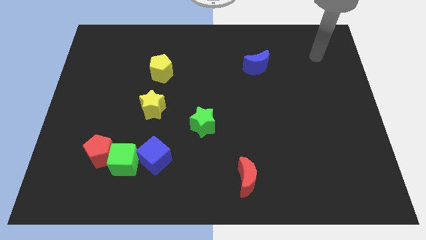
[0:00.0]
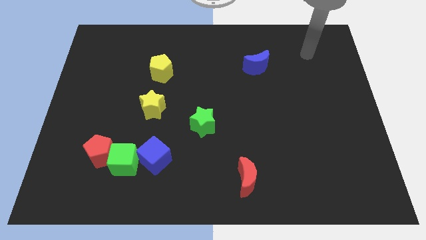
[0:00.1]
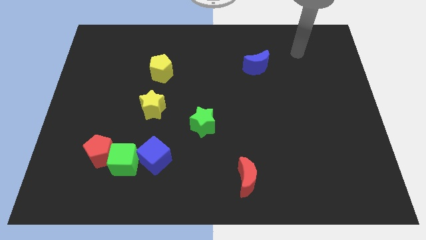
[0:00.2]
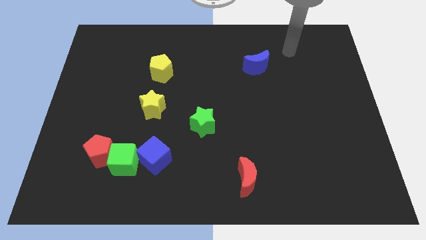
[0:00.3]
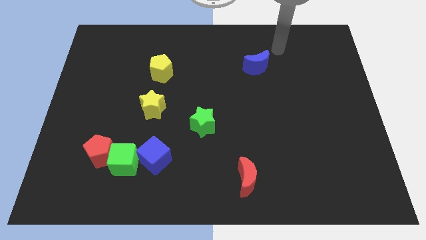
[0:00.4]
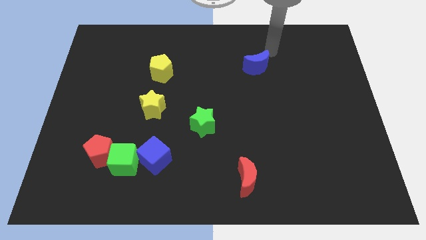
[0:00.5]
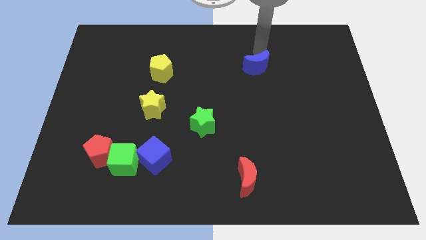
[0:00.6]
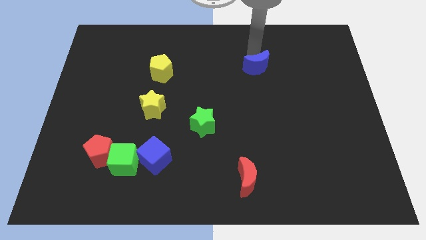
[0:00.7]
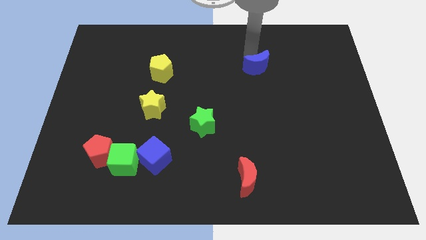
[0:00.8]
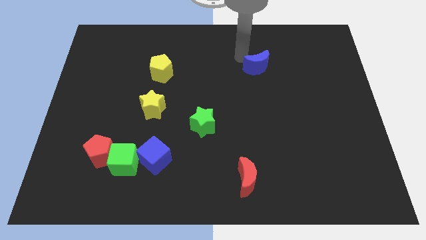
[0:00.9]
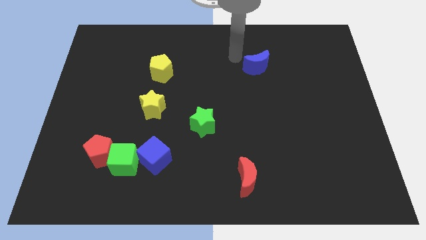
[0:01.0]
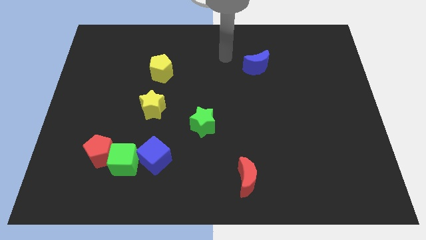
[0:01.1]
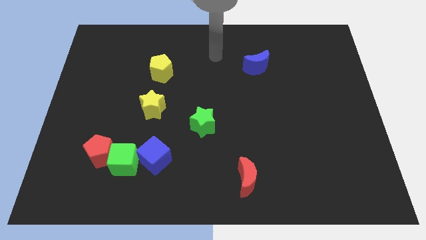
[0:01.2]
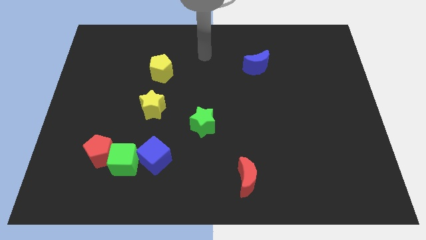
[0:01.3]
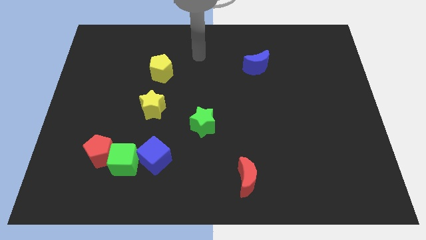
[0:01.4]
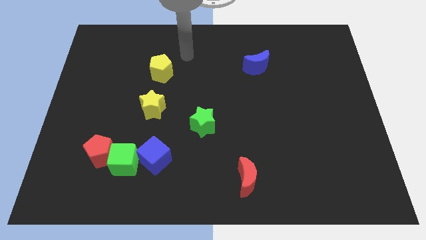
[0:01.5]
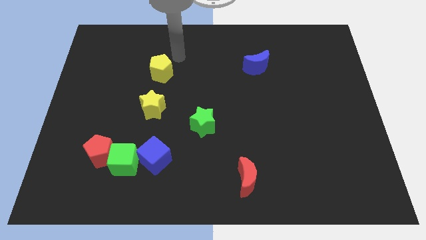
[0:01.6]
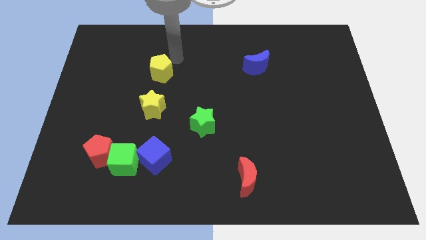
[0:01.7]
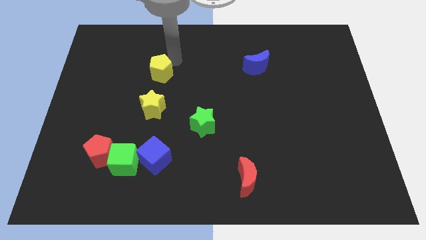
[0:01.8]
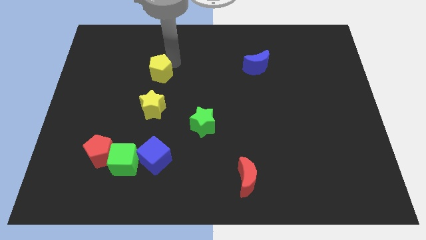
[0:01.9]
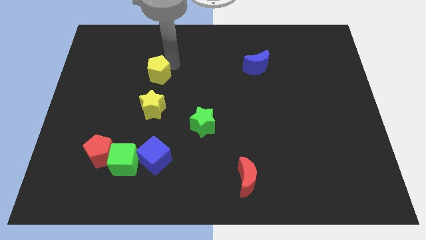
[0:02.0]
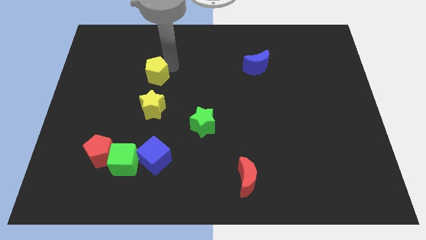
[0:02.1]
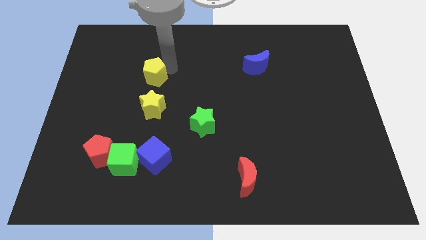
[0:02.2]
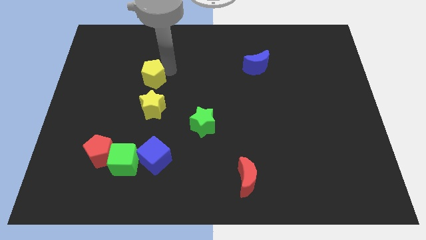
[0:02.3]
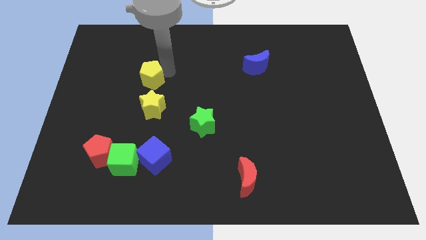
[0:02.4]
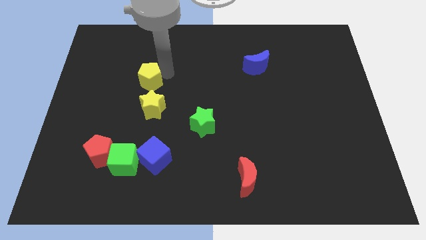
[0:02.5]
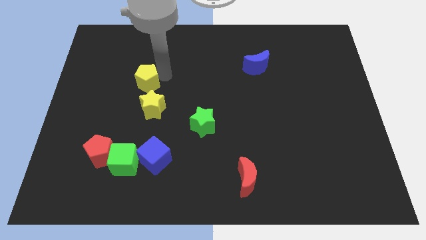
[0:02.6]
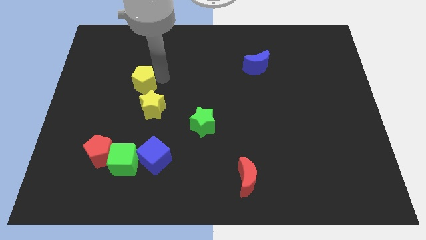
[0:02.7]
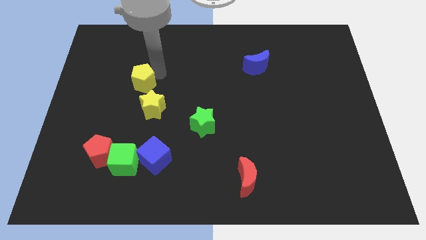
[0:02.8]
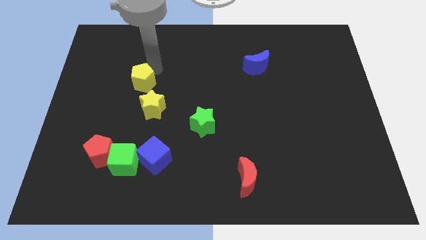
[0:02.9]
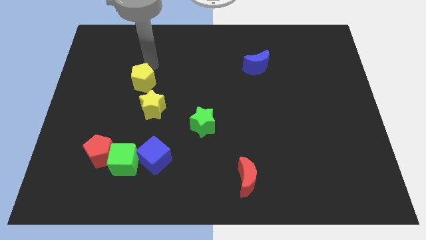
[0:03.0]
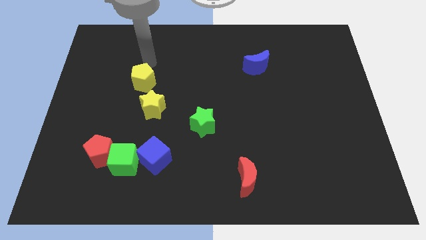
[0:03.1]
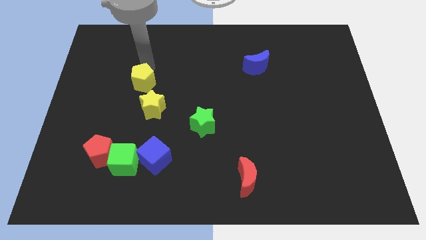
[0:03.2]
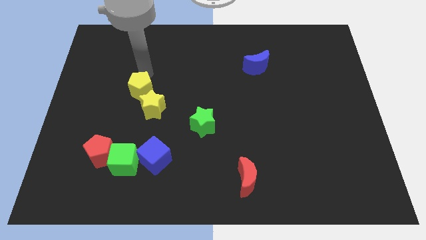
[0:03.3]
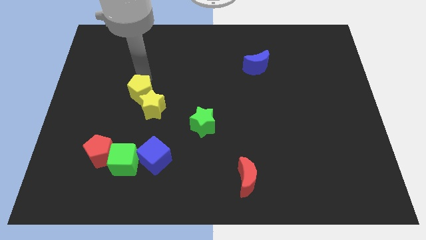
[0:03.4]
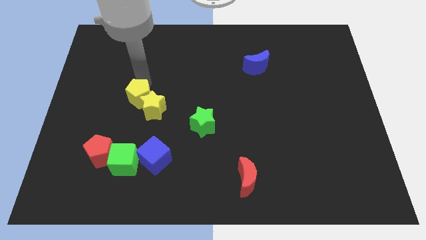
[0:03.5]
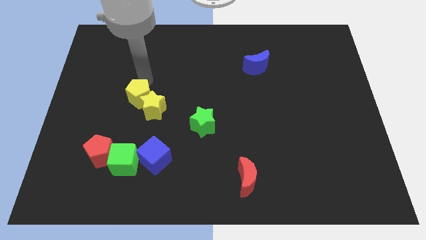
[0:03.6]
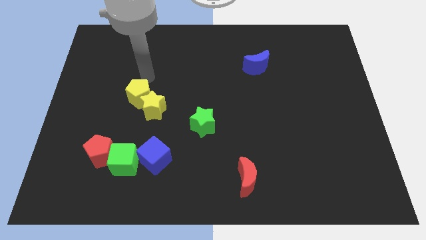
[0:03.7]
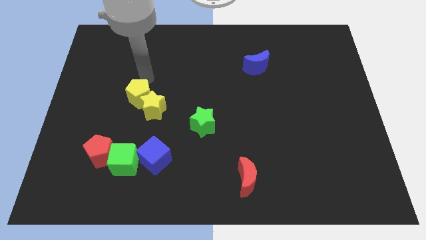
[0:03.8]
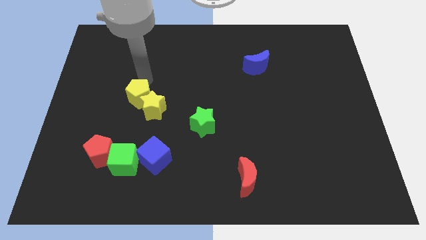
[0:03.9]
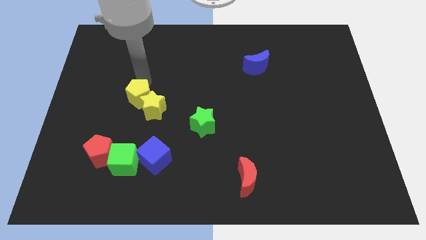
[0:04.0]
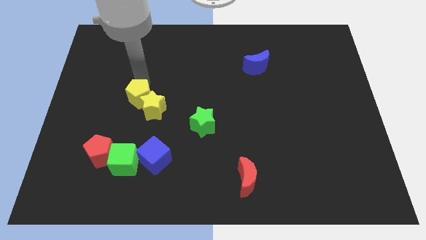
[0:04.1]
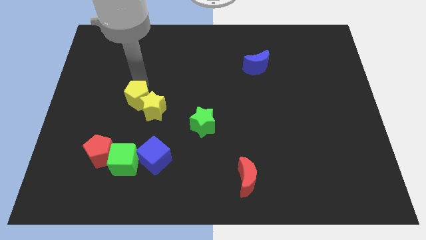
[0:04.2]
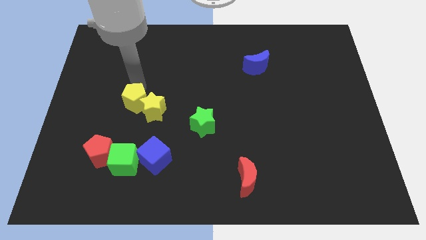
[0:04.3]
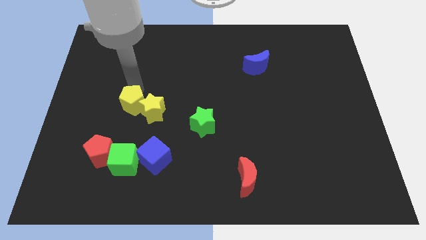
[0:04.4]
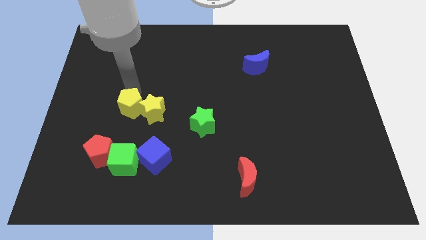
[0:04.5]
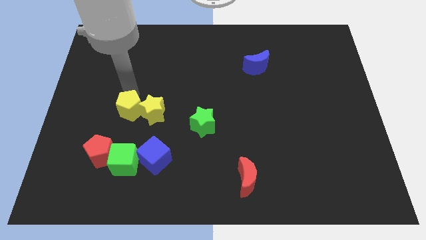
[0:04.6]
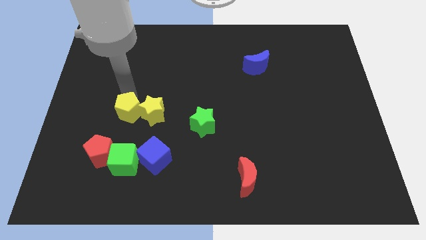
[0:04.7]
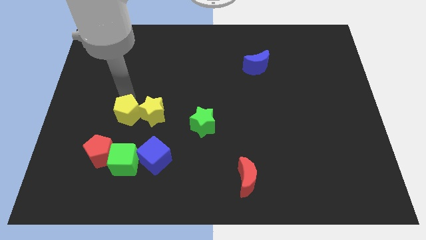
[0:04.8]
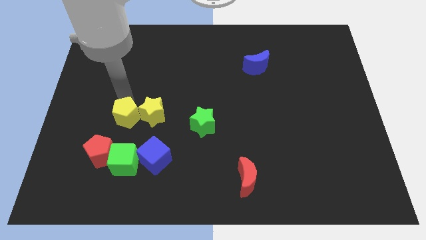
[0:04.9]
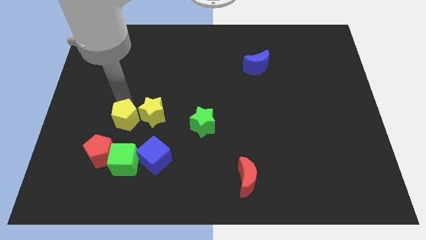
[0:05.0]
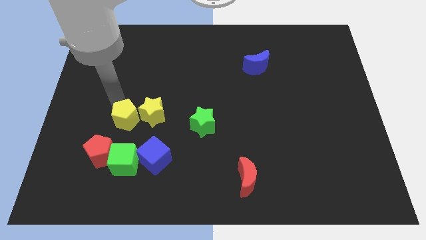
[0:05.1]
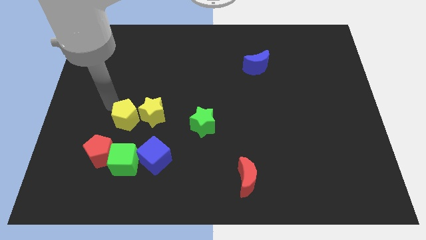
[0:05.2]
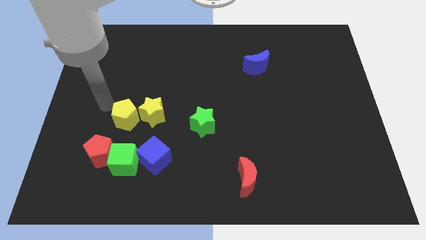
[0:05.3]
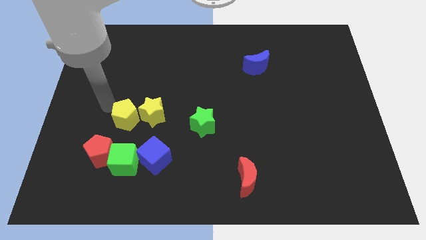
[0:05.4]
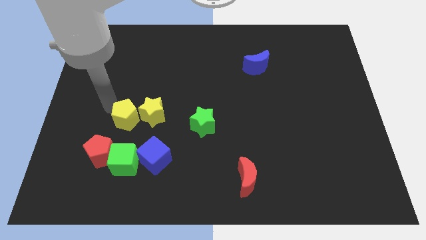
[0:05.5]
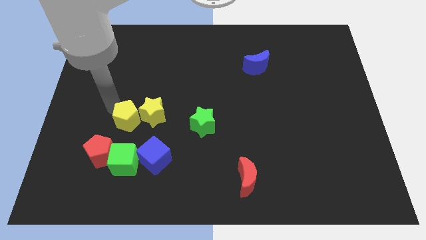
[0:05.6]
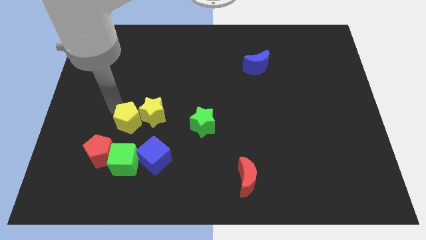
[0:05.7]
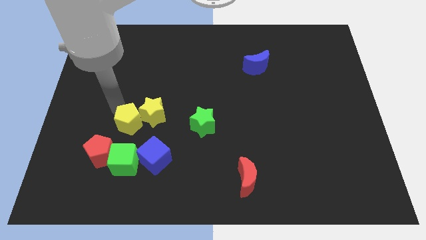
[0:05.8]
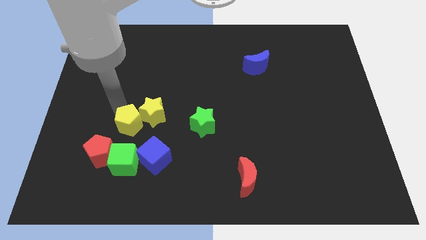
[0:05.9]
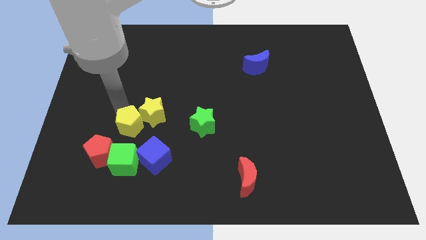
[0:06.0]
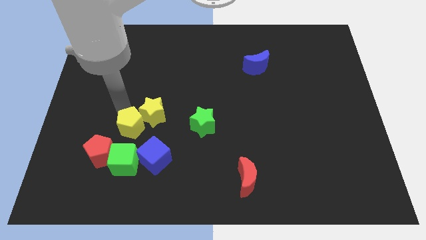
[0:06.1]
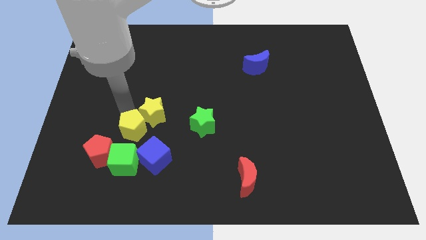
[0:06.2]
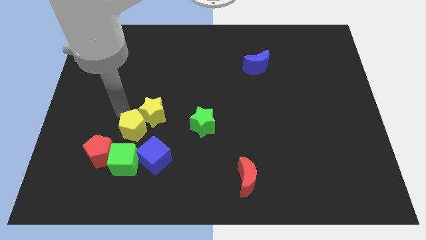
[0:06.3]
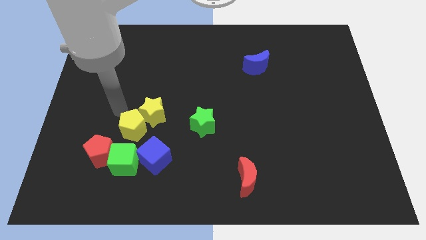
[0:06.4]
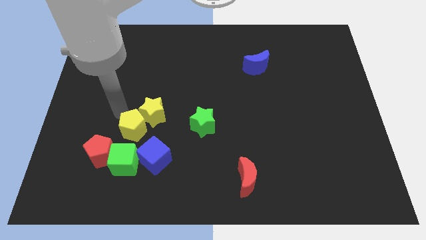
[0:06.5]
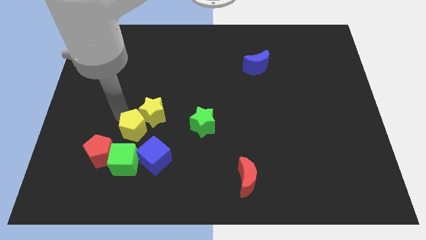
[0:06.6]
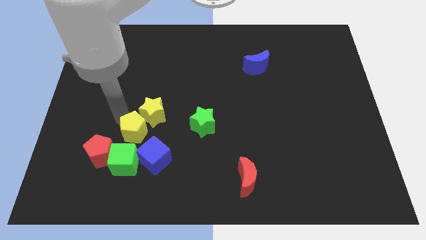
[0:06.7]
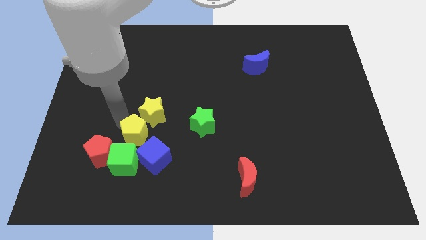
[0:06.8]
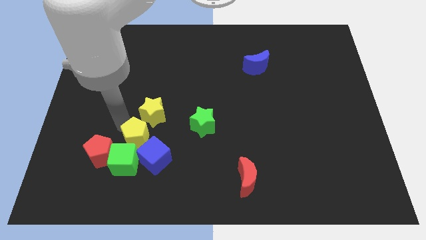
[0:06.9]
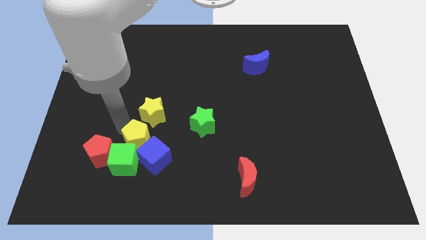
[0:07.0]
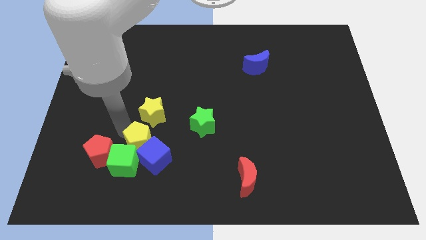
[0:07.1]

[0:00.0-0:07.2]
put the yellow pentagon close to the blue cube

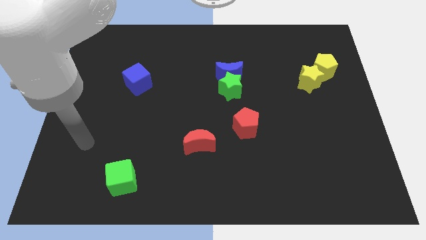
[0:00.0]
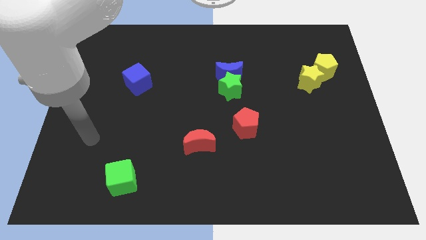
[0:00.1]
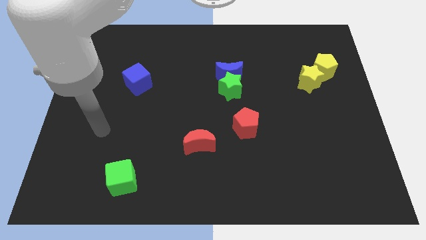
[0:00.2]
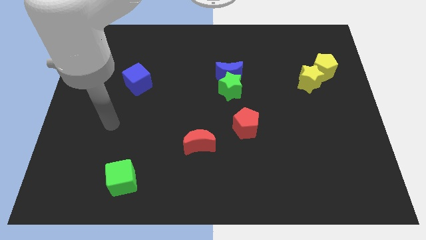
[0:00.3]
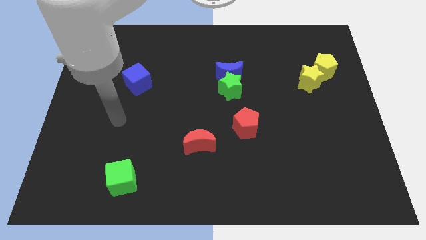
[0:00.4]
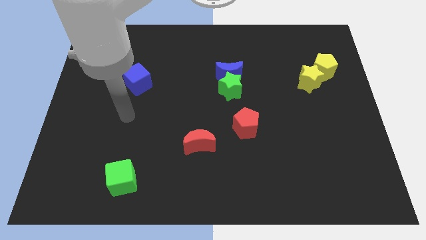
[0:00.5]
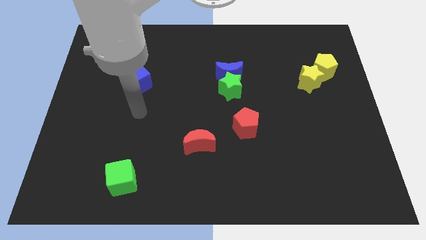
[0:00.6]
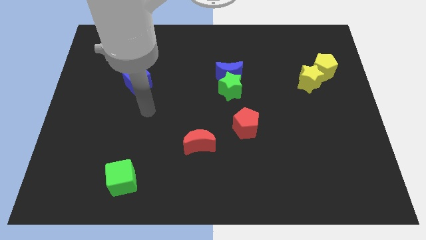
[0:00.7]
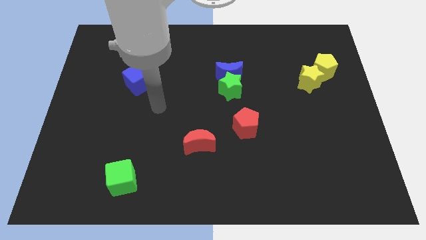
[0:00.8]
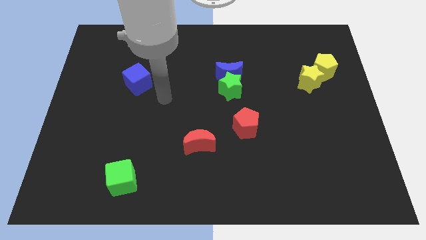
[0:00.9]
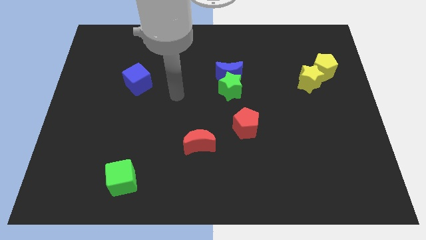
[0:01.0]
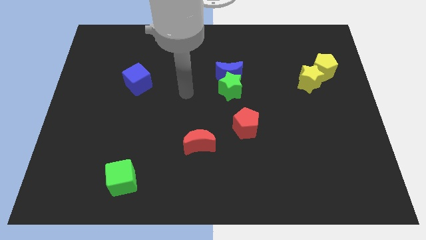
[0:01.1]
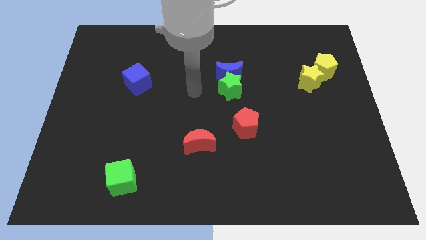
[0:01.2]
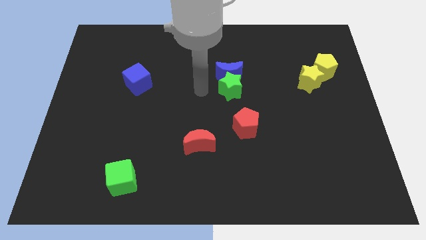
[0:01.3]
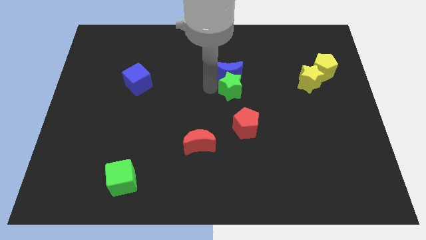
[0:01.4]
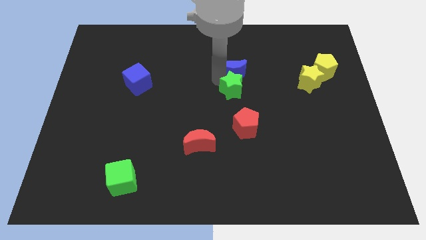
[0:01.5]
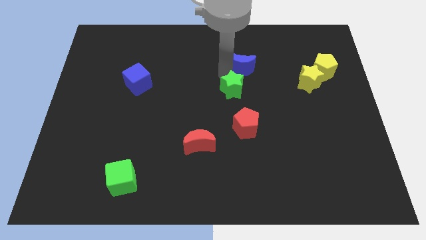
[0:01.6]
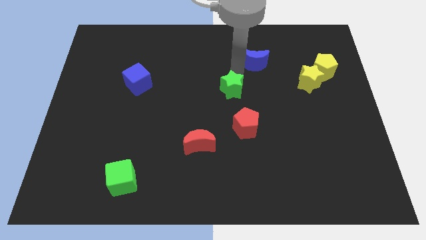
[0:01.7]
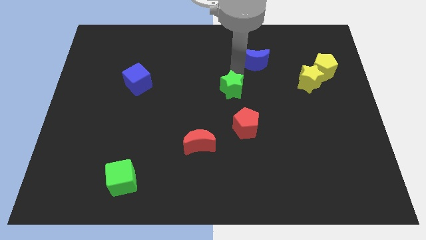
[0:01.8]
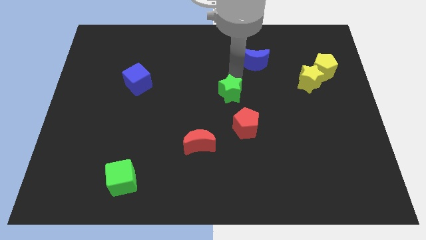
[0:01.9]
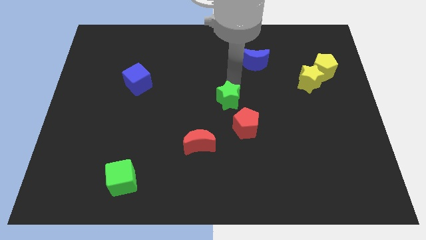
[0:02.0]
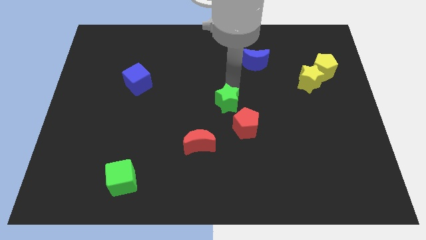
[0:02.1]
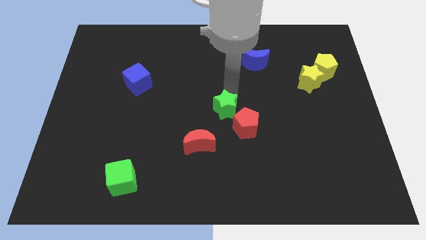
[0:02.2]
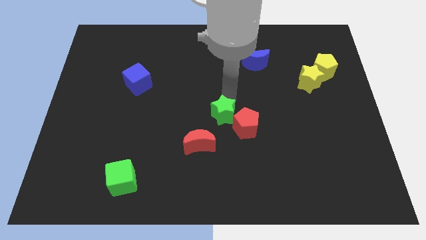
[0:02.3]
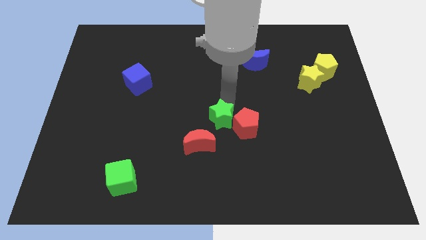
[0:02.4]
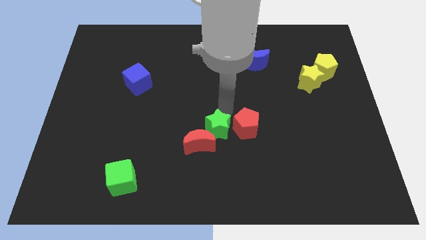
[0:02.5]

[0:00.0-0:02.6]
slide the green star to the red moon
